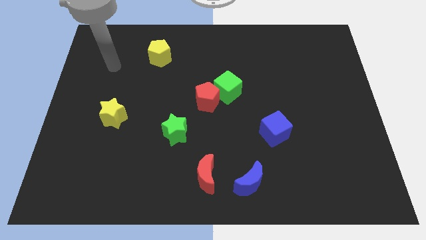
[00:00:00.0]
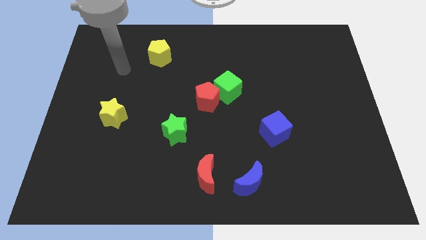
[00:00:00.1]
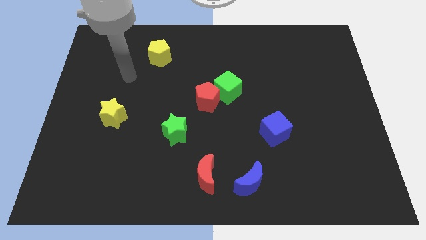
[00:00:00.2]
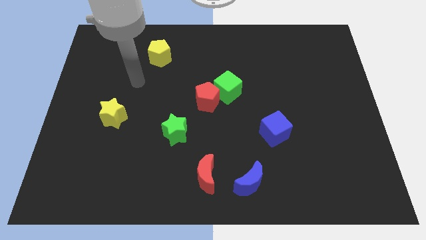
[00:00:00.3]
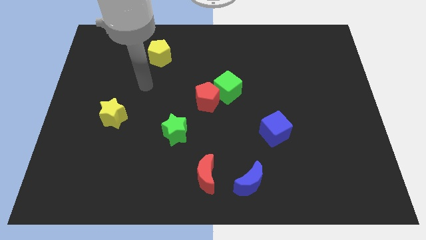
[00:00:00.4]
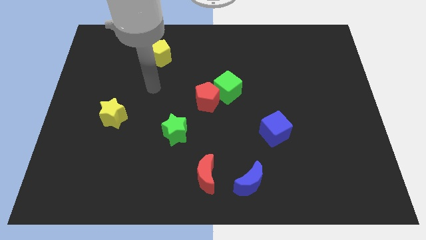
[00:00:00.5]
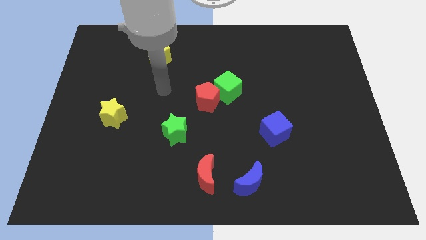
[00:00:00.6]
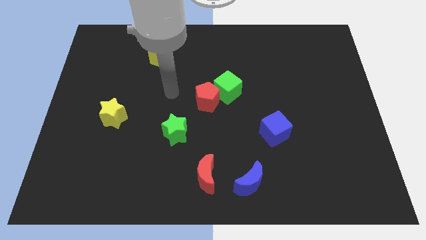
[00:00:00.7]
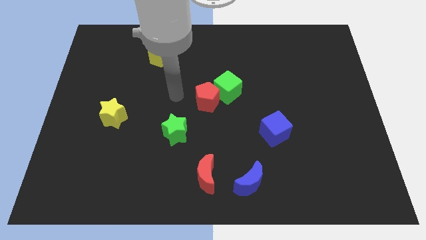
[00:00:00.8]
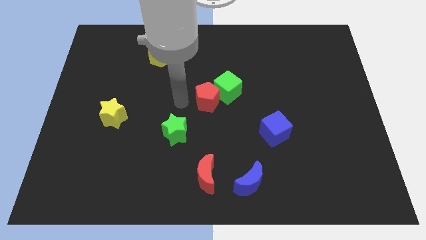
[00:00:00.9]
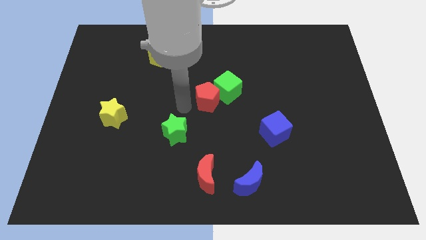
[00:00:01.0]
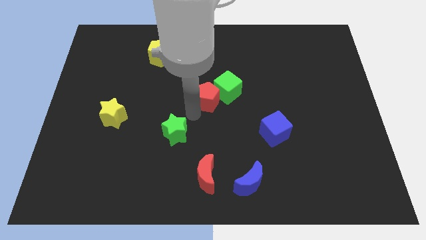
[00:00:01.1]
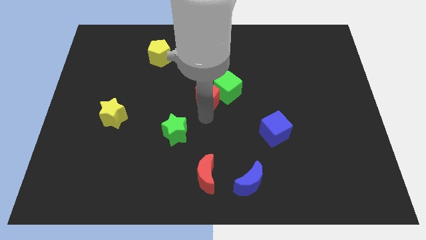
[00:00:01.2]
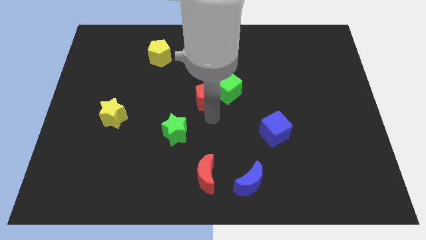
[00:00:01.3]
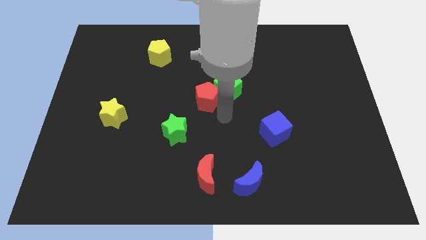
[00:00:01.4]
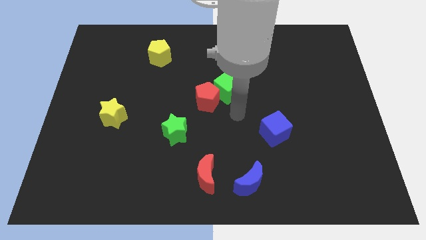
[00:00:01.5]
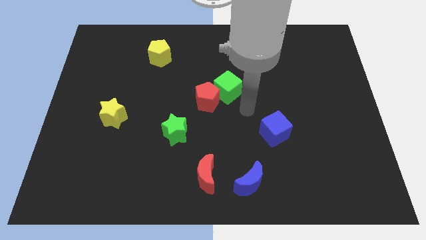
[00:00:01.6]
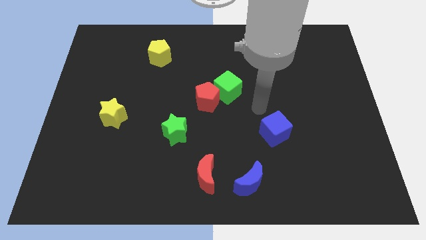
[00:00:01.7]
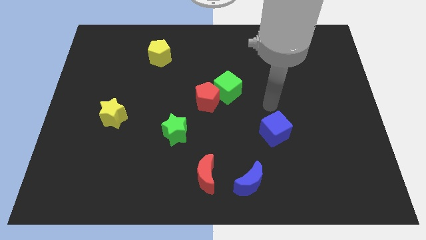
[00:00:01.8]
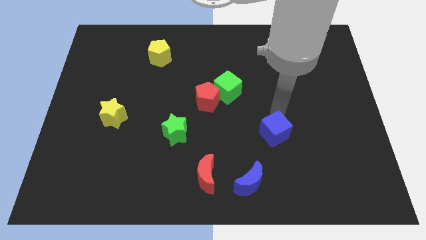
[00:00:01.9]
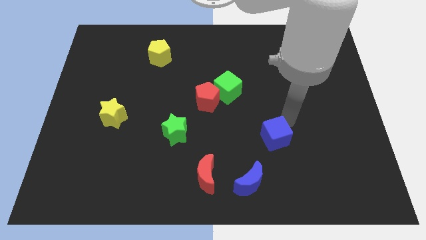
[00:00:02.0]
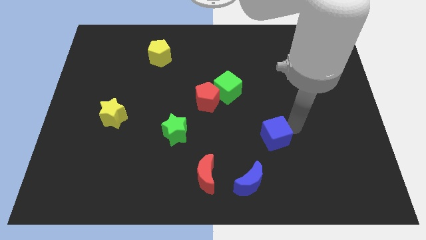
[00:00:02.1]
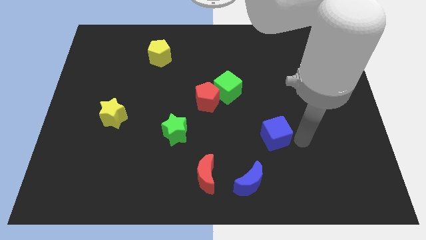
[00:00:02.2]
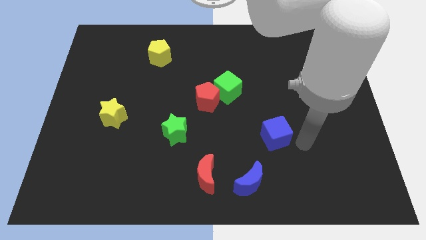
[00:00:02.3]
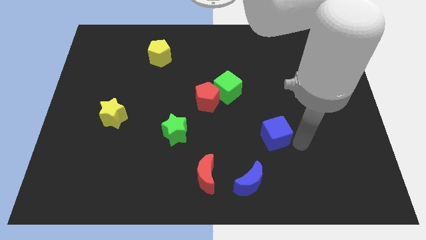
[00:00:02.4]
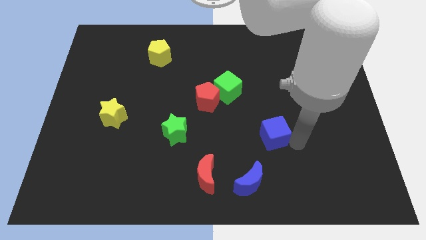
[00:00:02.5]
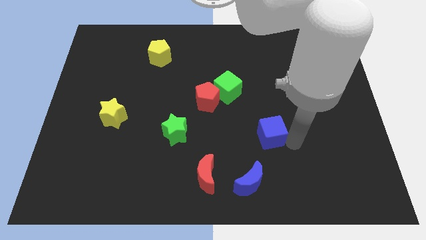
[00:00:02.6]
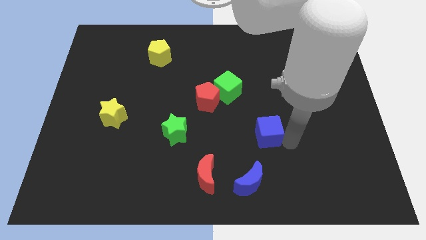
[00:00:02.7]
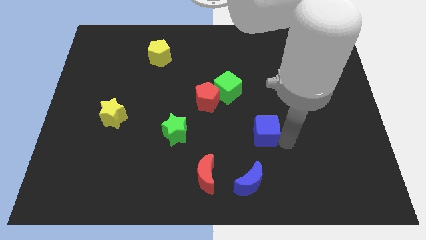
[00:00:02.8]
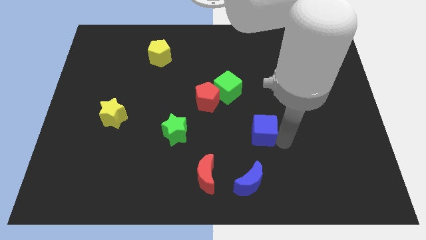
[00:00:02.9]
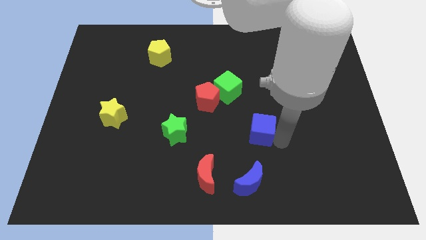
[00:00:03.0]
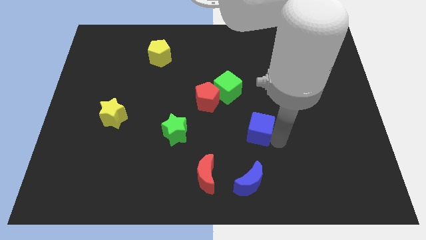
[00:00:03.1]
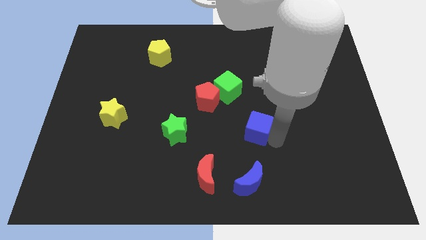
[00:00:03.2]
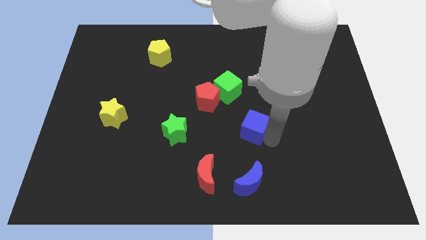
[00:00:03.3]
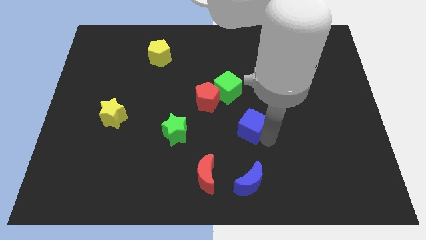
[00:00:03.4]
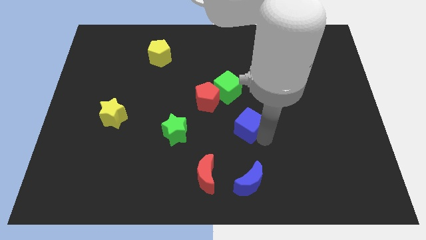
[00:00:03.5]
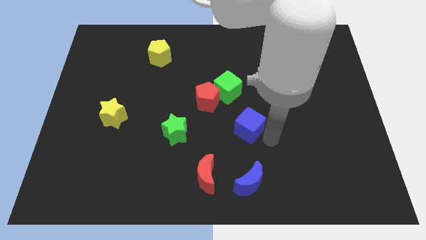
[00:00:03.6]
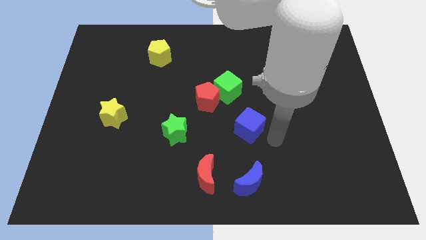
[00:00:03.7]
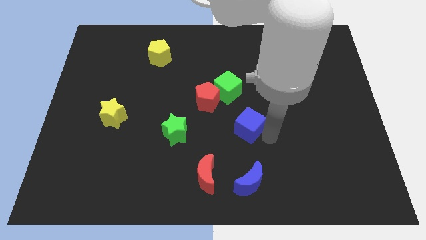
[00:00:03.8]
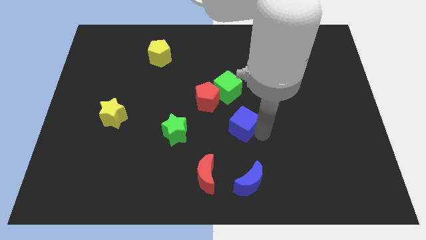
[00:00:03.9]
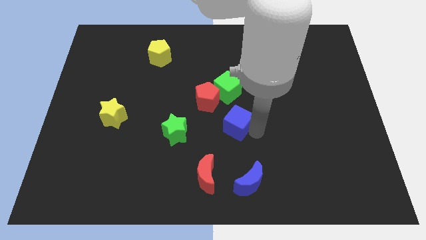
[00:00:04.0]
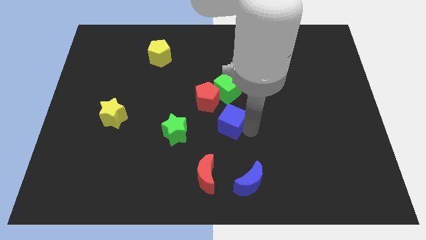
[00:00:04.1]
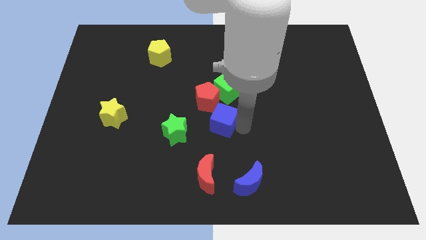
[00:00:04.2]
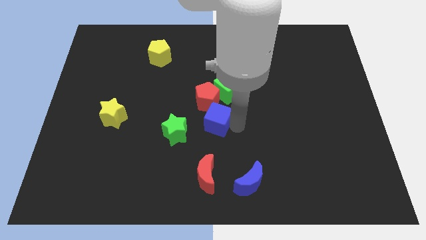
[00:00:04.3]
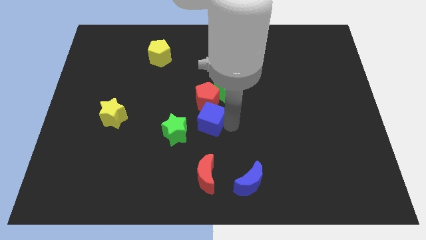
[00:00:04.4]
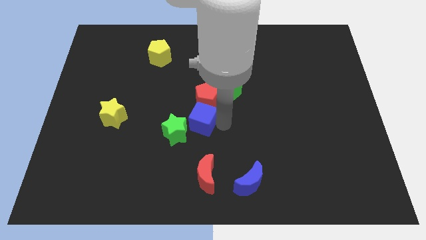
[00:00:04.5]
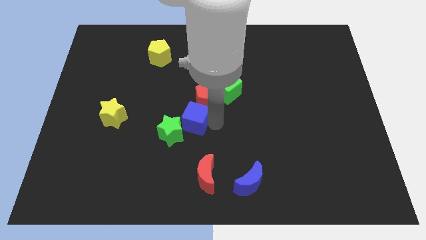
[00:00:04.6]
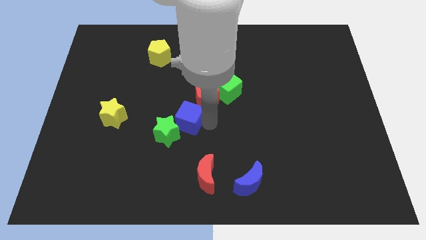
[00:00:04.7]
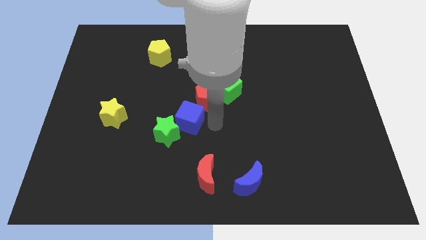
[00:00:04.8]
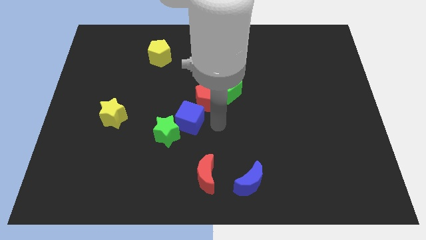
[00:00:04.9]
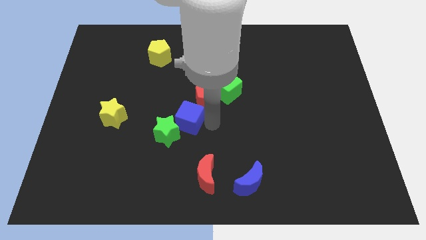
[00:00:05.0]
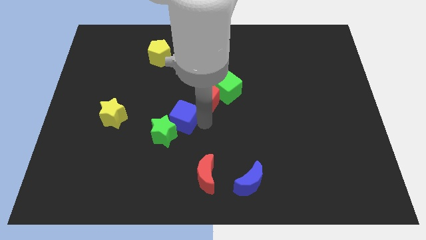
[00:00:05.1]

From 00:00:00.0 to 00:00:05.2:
move the blue cube to the right side of the yellow star

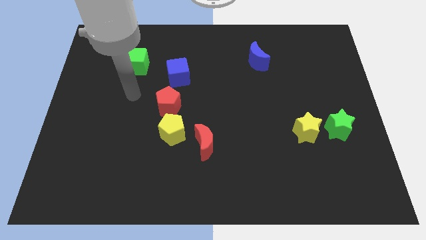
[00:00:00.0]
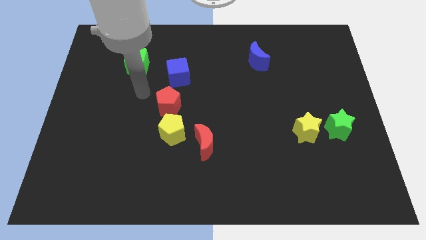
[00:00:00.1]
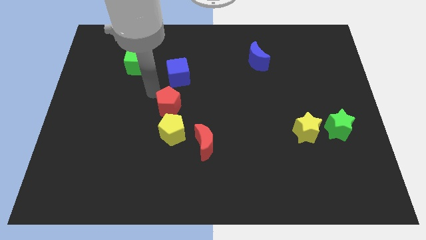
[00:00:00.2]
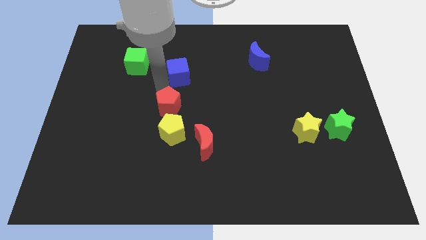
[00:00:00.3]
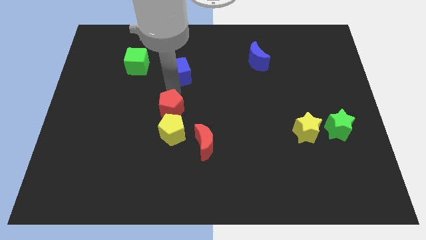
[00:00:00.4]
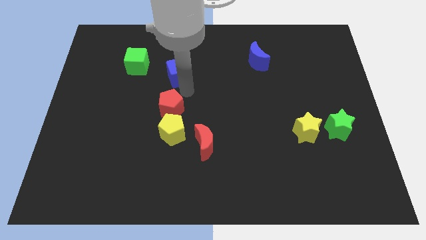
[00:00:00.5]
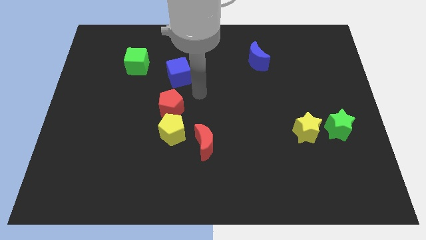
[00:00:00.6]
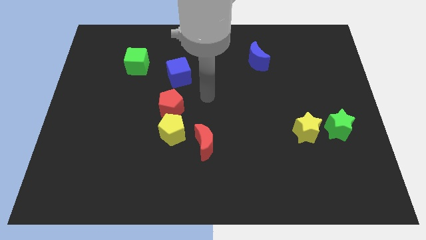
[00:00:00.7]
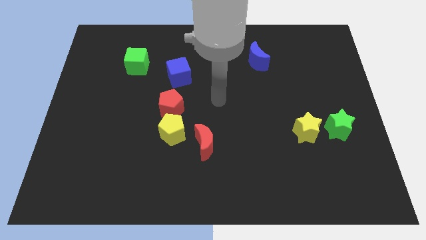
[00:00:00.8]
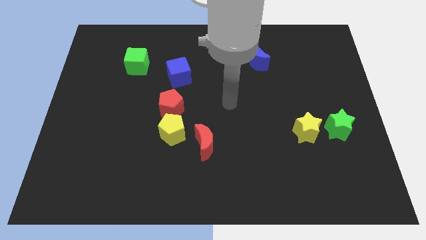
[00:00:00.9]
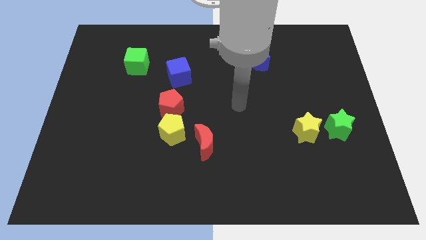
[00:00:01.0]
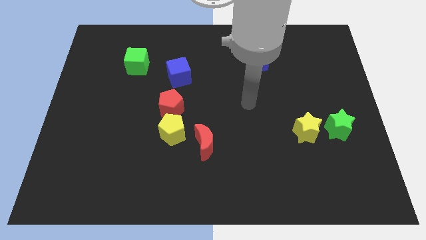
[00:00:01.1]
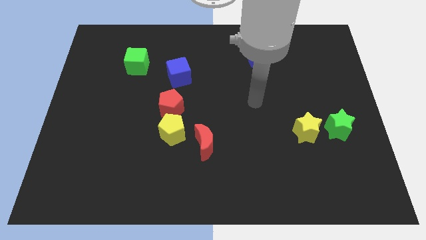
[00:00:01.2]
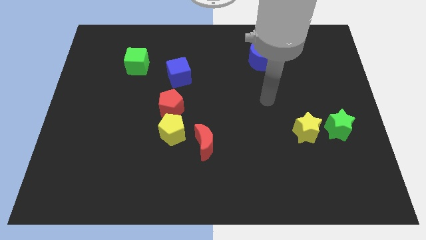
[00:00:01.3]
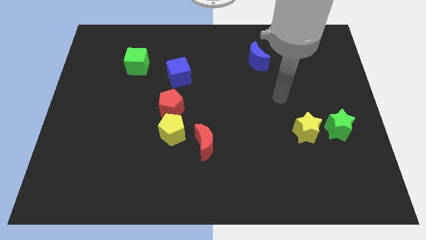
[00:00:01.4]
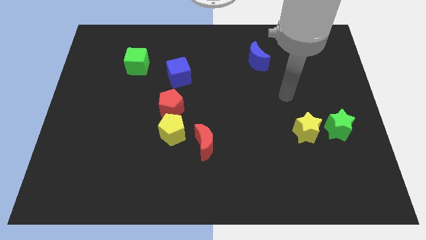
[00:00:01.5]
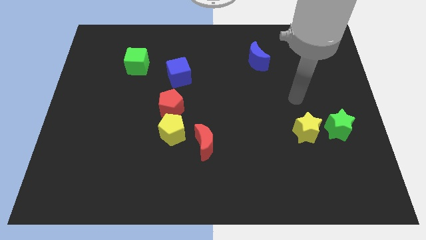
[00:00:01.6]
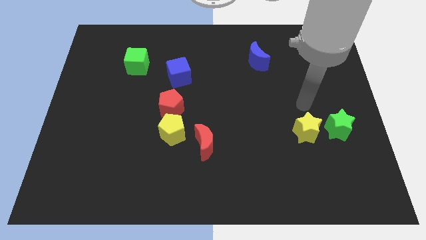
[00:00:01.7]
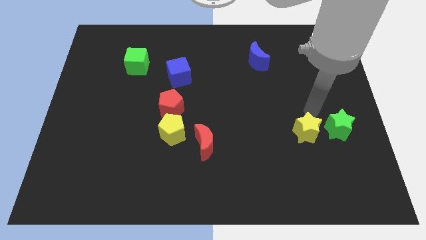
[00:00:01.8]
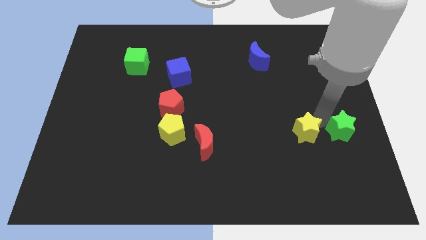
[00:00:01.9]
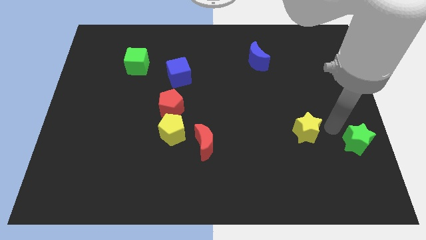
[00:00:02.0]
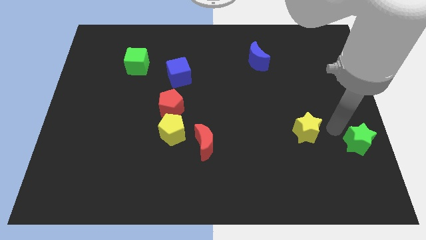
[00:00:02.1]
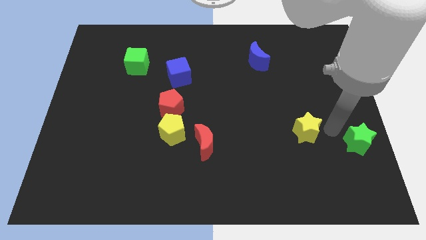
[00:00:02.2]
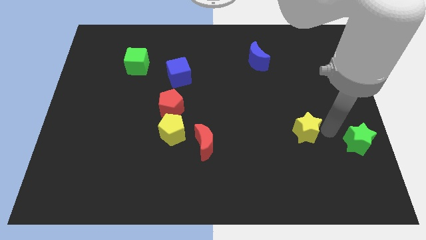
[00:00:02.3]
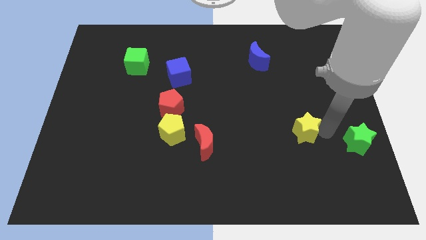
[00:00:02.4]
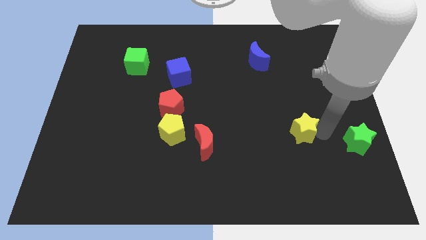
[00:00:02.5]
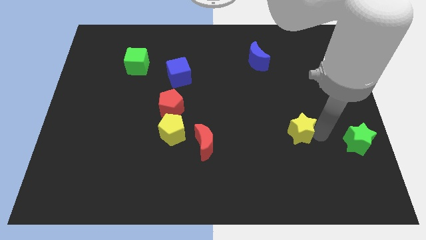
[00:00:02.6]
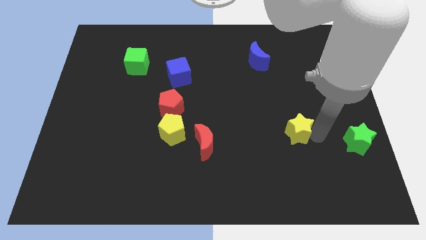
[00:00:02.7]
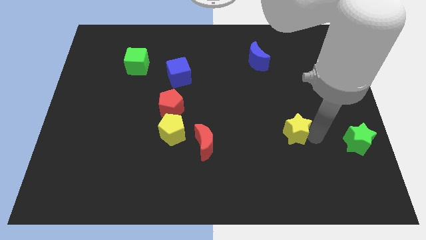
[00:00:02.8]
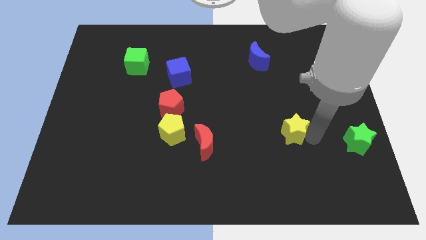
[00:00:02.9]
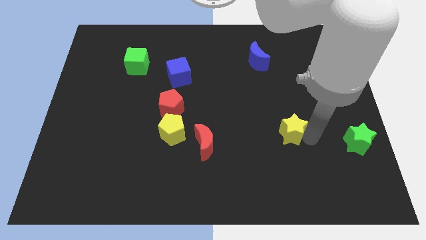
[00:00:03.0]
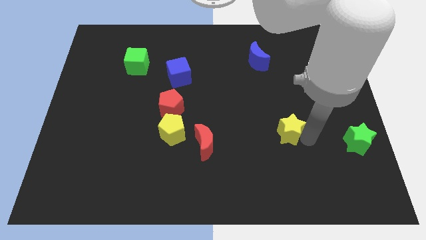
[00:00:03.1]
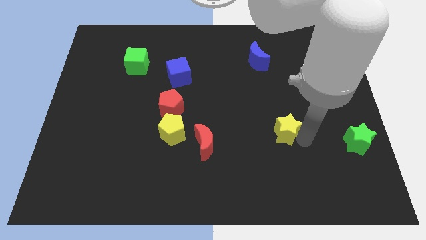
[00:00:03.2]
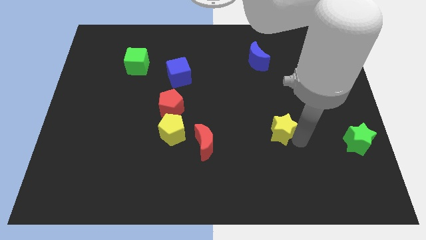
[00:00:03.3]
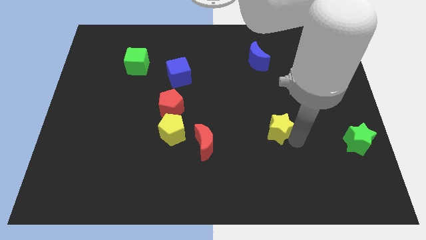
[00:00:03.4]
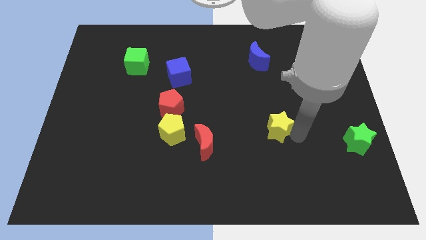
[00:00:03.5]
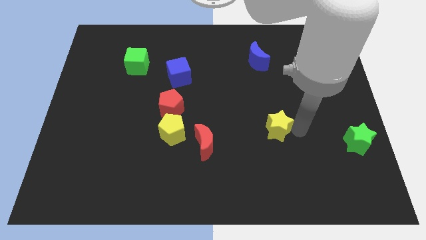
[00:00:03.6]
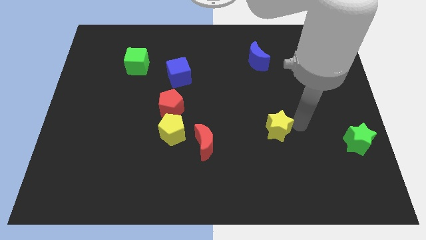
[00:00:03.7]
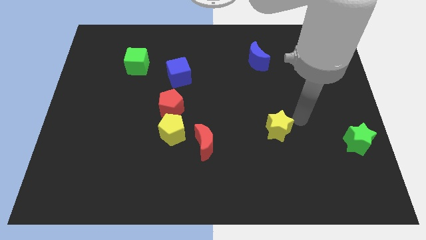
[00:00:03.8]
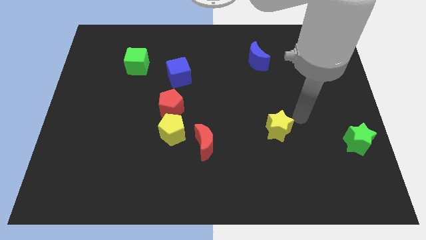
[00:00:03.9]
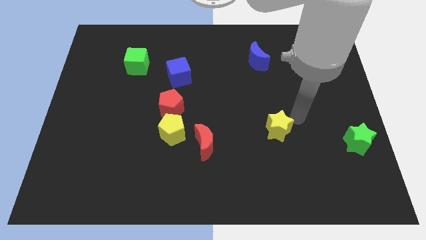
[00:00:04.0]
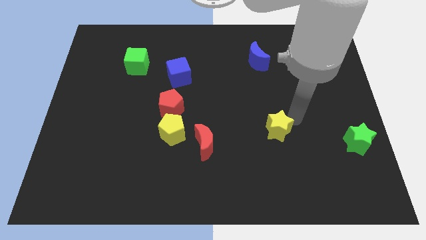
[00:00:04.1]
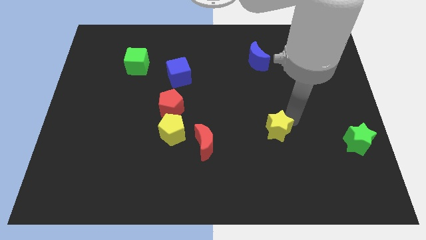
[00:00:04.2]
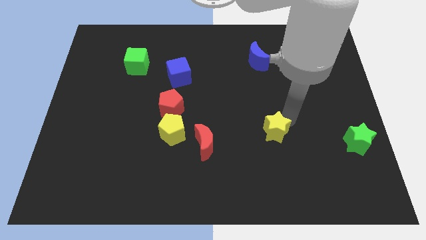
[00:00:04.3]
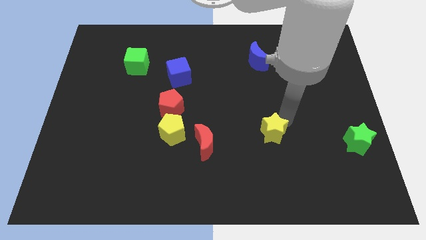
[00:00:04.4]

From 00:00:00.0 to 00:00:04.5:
put the yellow star to the right side of the red moon
